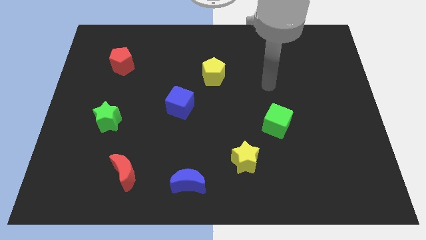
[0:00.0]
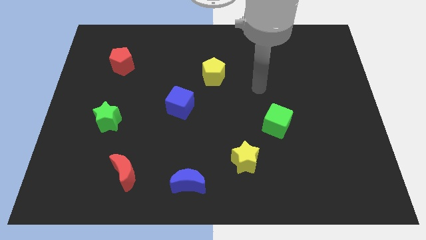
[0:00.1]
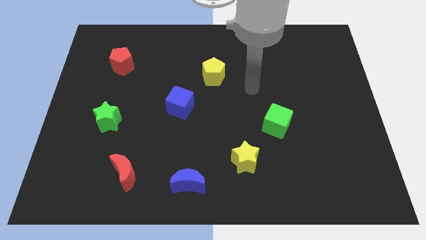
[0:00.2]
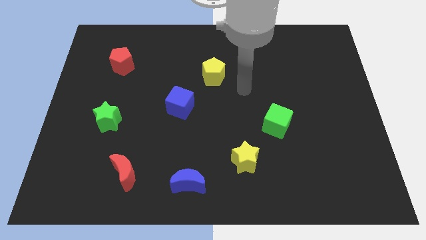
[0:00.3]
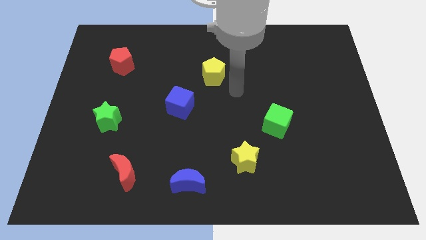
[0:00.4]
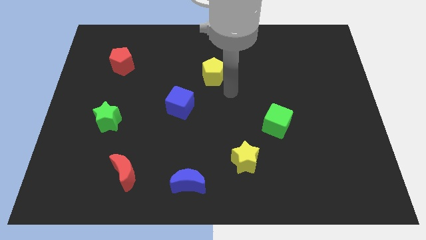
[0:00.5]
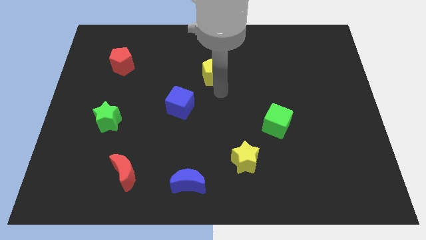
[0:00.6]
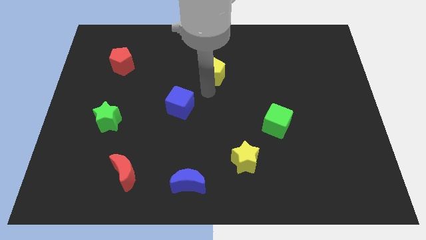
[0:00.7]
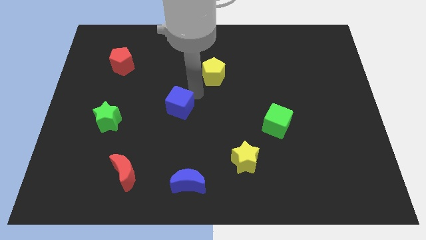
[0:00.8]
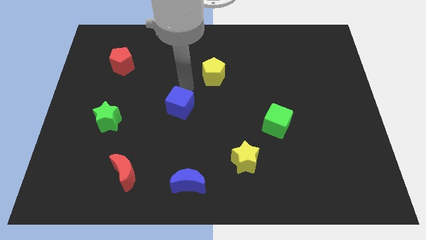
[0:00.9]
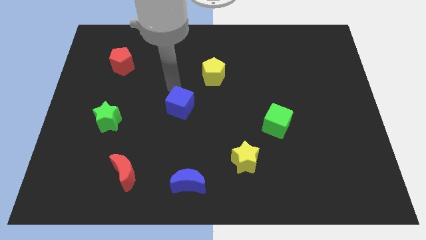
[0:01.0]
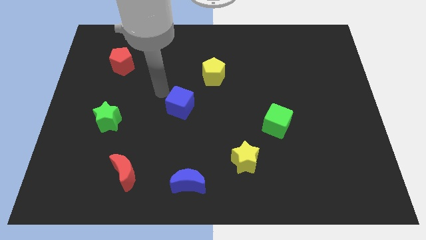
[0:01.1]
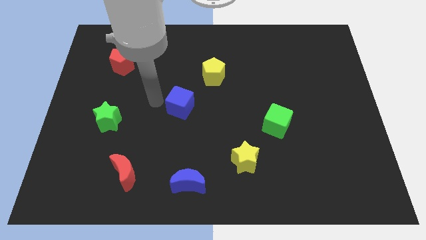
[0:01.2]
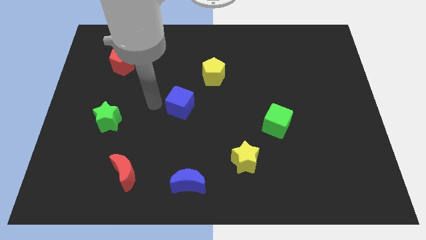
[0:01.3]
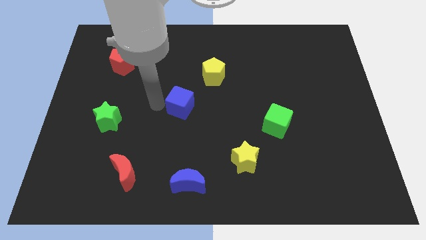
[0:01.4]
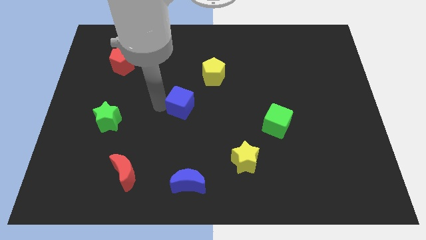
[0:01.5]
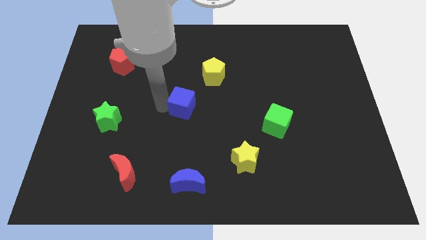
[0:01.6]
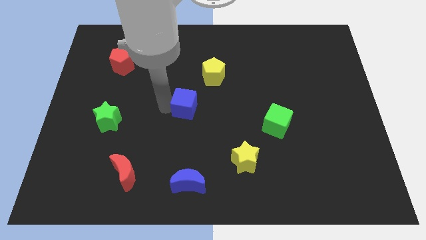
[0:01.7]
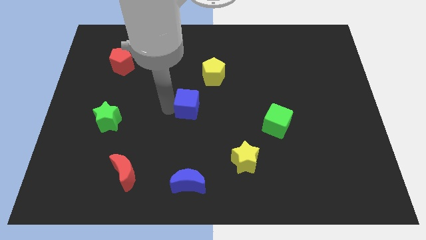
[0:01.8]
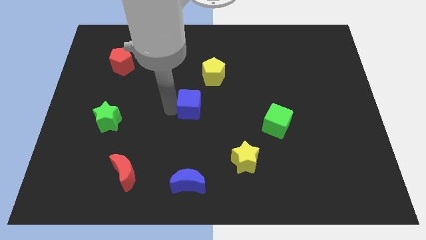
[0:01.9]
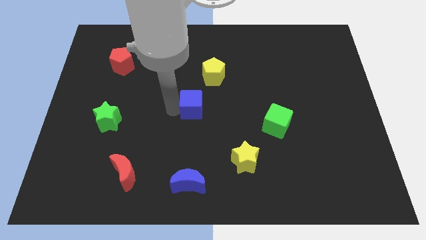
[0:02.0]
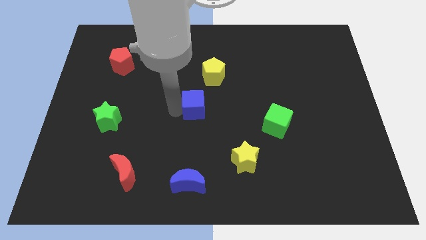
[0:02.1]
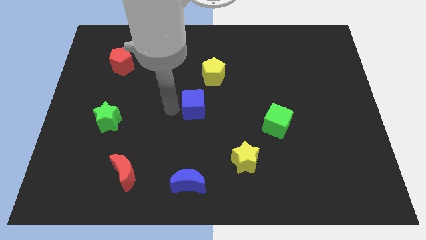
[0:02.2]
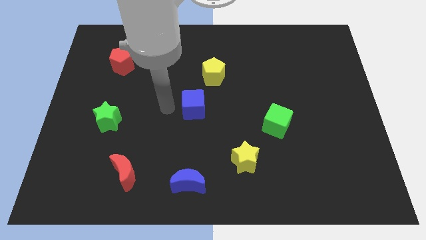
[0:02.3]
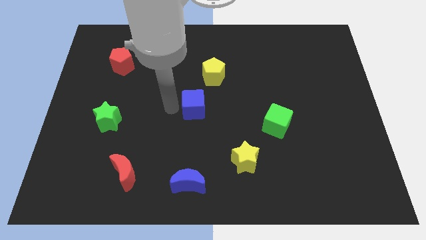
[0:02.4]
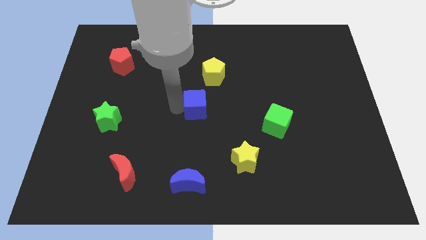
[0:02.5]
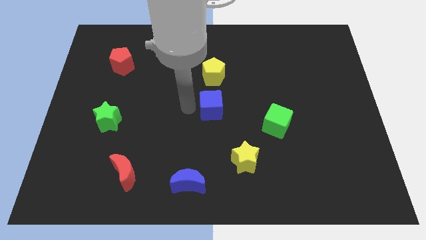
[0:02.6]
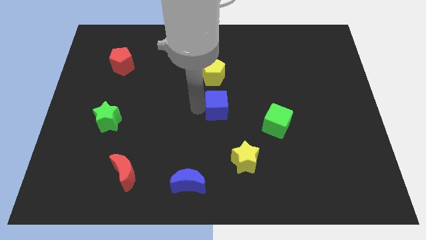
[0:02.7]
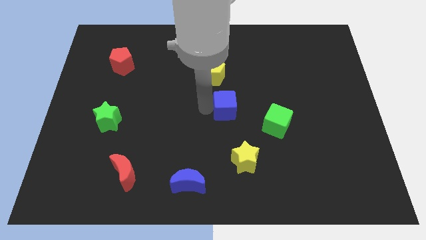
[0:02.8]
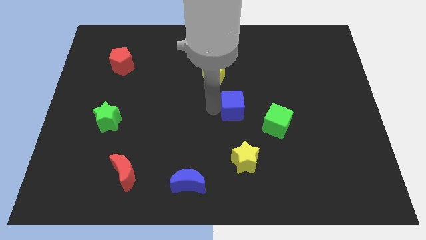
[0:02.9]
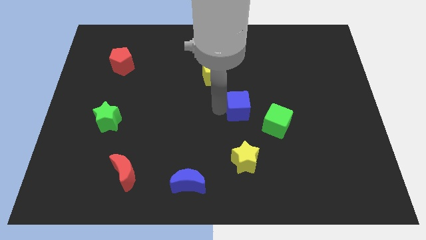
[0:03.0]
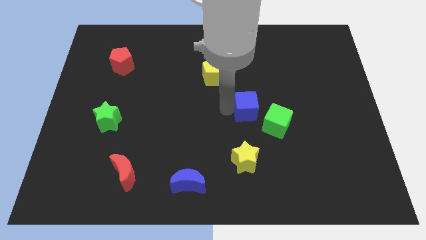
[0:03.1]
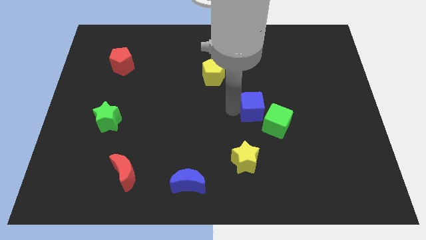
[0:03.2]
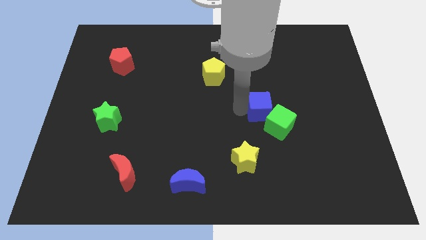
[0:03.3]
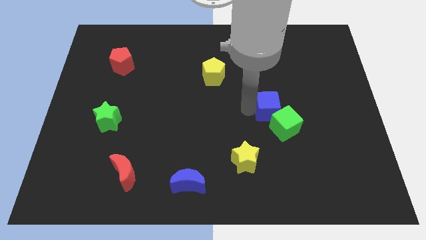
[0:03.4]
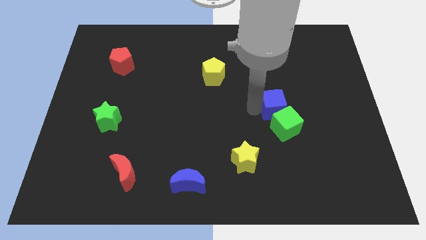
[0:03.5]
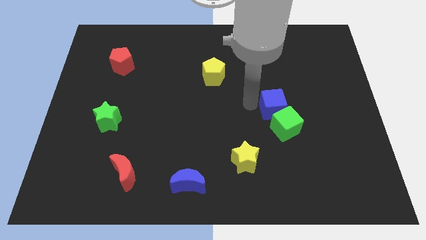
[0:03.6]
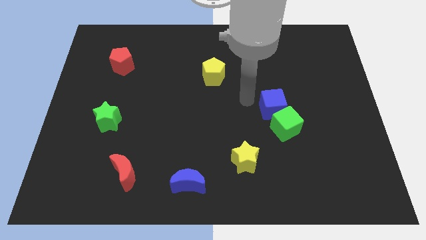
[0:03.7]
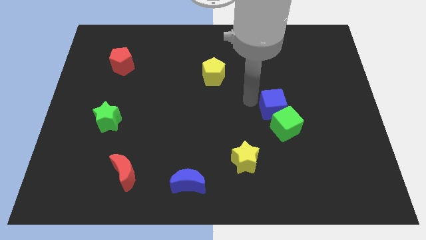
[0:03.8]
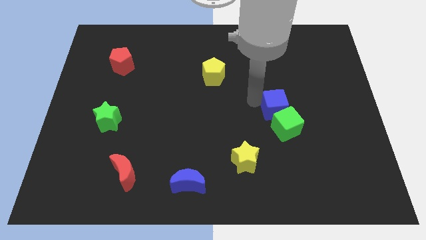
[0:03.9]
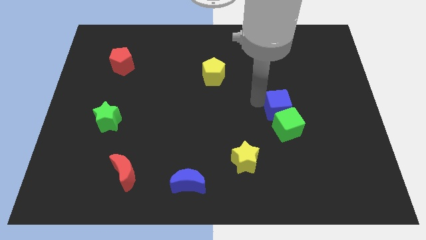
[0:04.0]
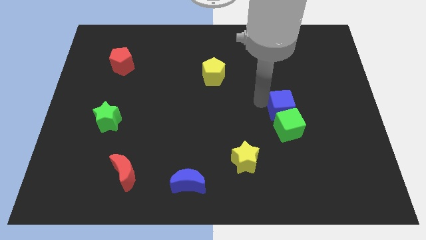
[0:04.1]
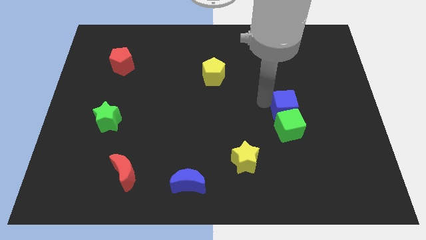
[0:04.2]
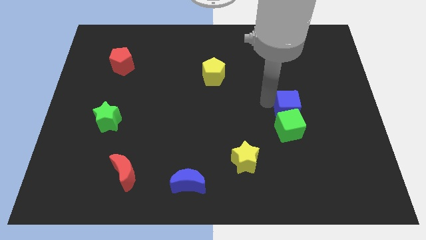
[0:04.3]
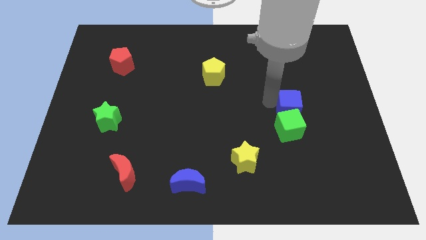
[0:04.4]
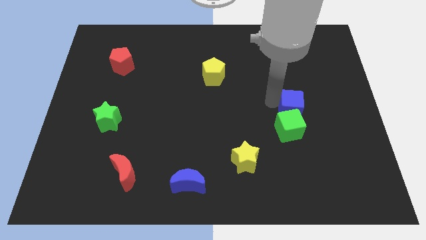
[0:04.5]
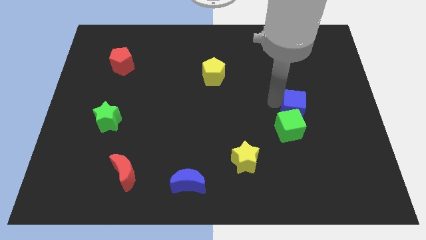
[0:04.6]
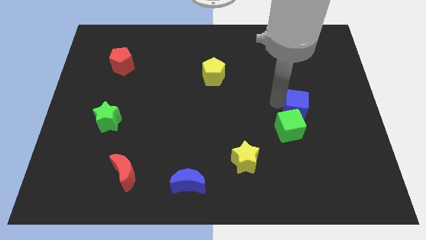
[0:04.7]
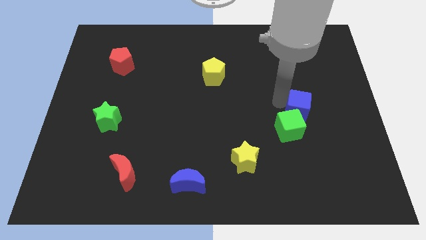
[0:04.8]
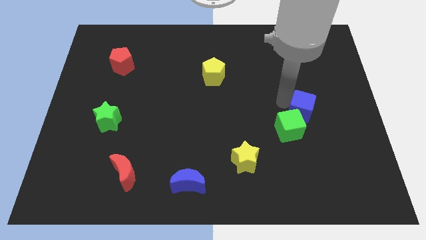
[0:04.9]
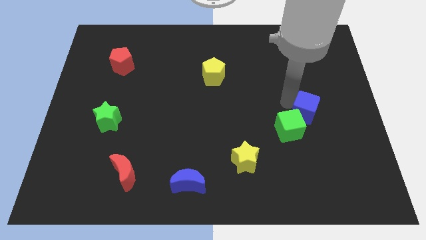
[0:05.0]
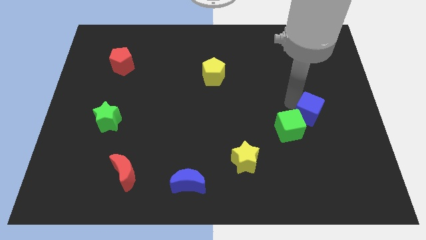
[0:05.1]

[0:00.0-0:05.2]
put the blue cube right of the green cube

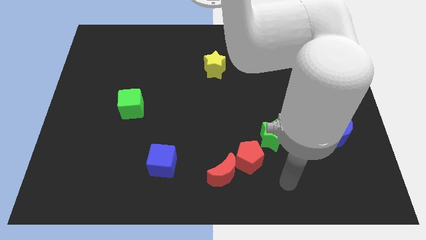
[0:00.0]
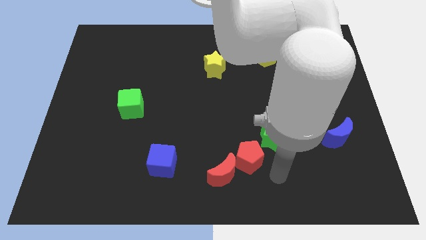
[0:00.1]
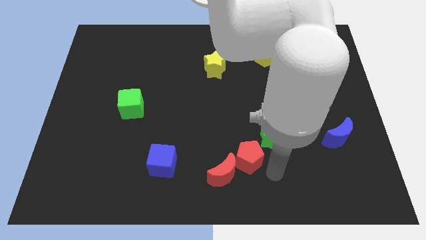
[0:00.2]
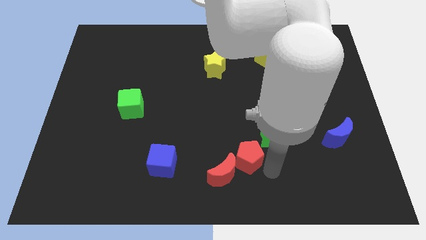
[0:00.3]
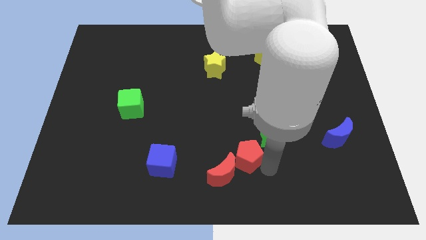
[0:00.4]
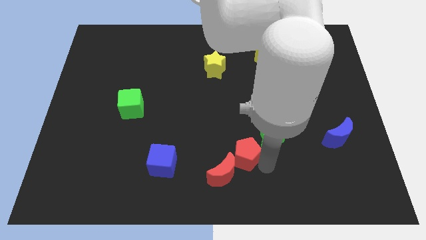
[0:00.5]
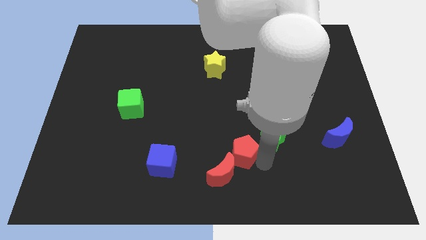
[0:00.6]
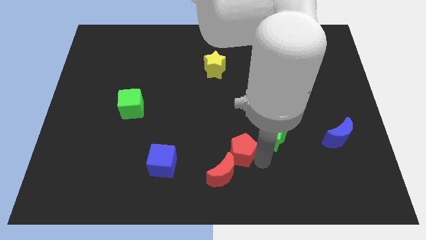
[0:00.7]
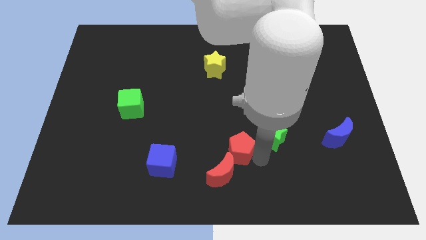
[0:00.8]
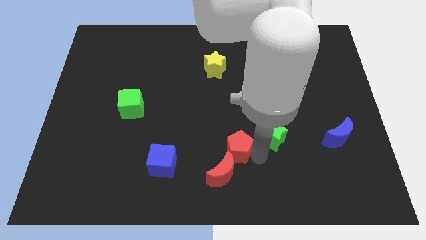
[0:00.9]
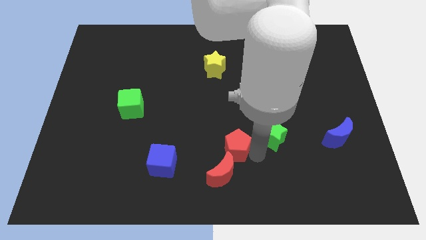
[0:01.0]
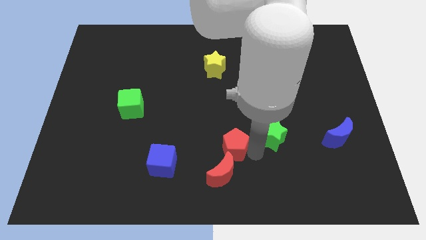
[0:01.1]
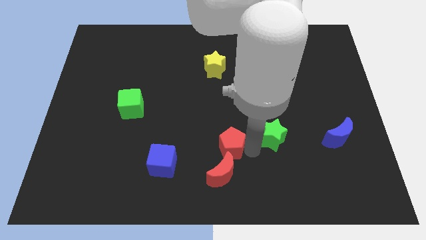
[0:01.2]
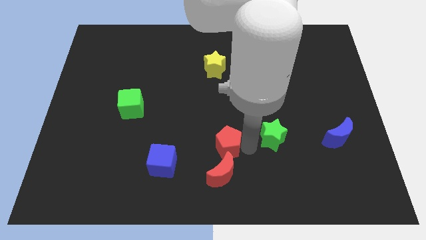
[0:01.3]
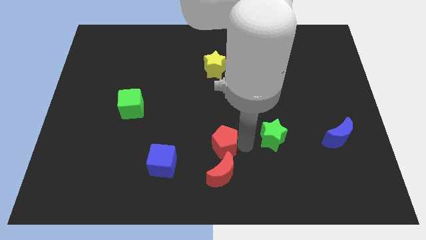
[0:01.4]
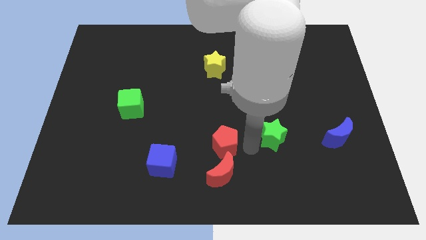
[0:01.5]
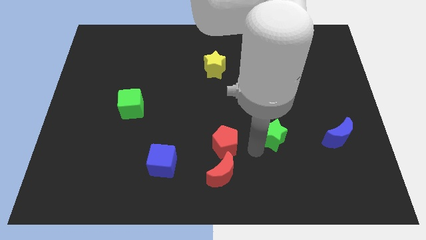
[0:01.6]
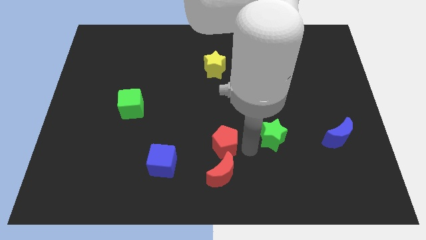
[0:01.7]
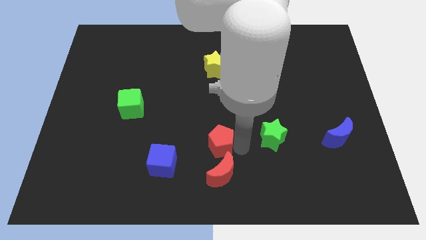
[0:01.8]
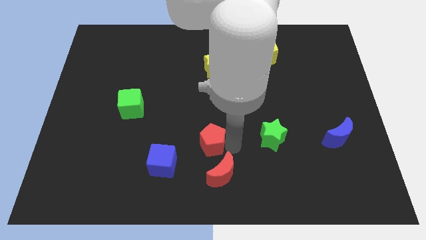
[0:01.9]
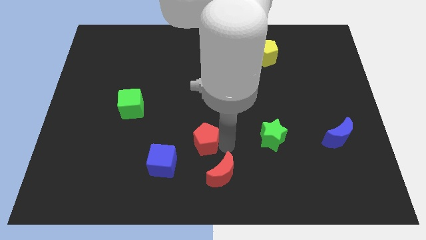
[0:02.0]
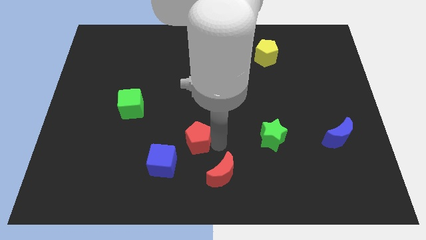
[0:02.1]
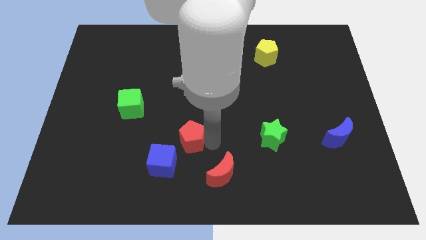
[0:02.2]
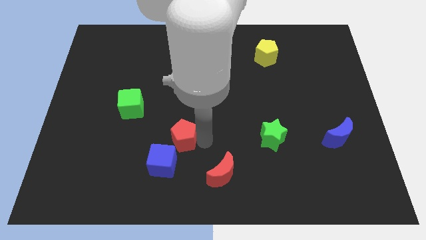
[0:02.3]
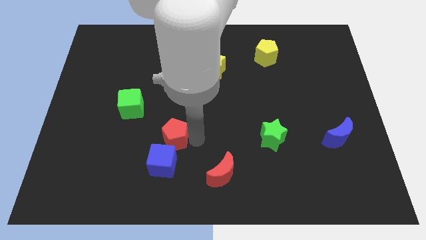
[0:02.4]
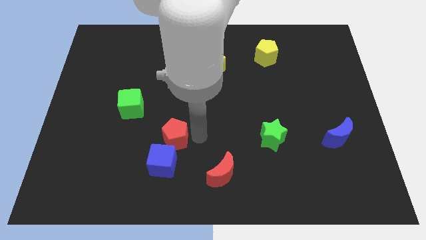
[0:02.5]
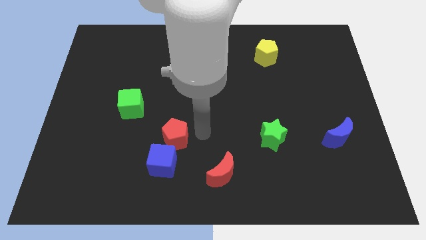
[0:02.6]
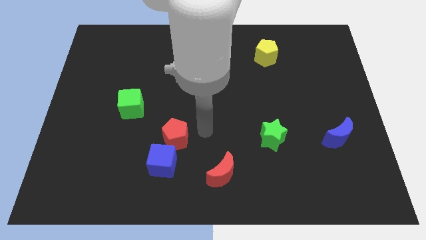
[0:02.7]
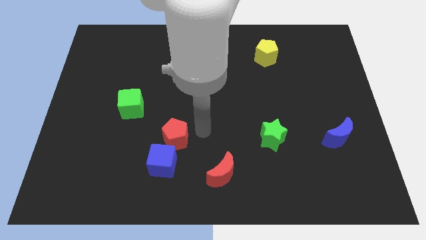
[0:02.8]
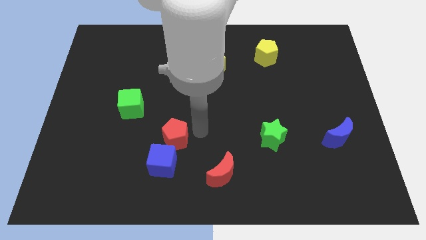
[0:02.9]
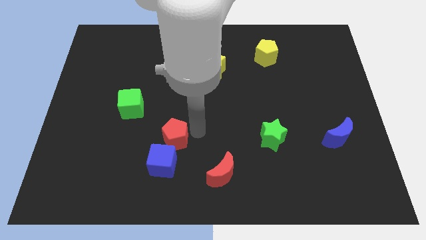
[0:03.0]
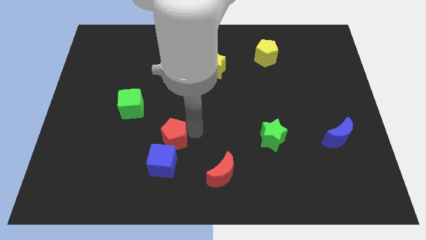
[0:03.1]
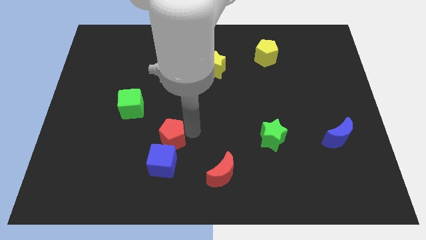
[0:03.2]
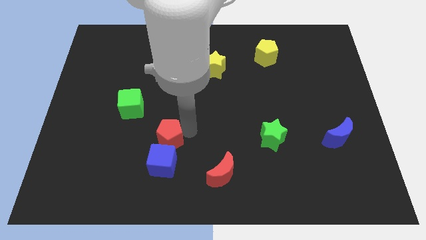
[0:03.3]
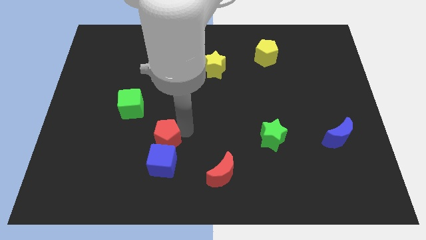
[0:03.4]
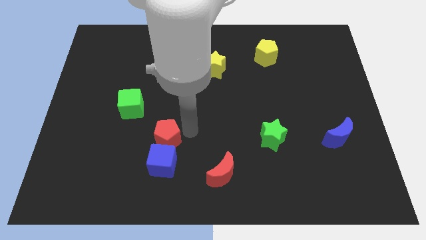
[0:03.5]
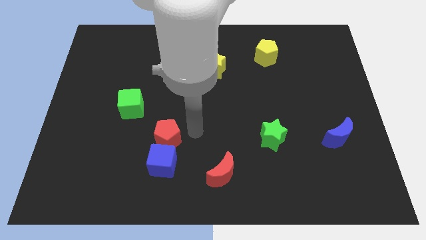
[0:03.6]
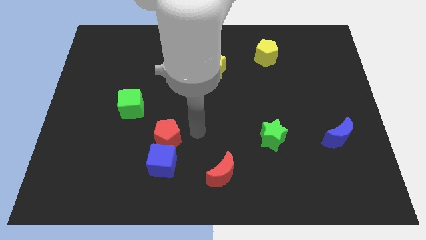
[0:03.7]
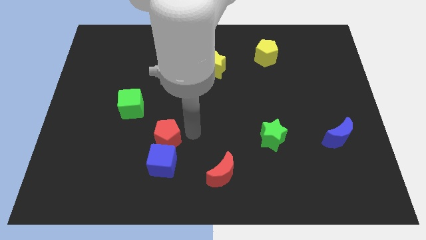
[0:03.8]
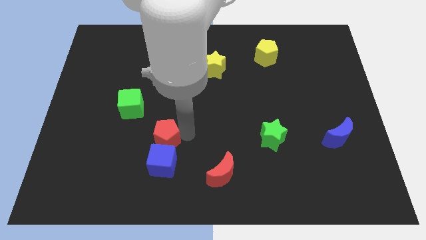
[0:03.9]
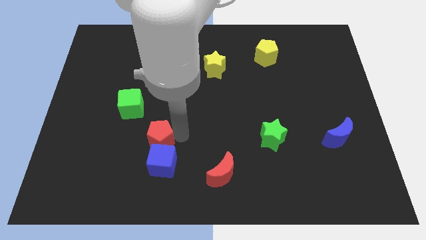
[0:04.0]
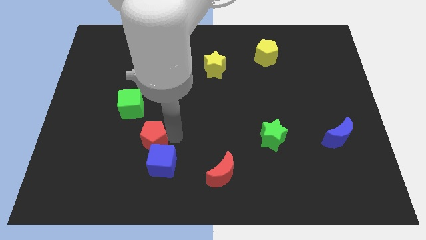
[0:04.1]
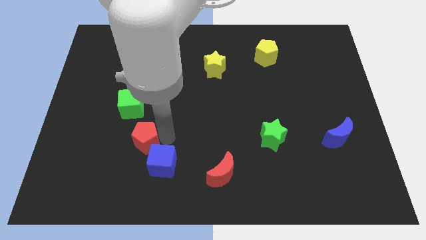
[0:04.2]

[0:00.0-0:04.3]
push the red pentagon to the bottom side of the green cube
